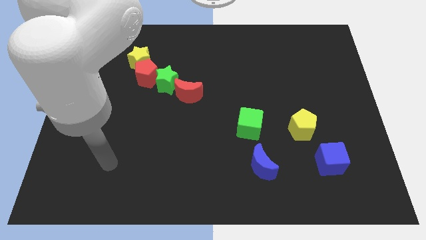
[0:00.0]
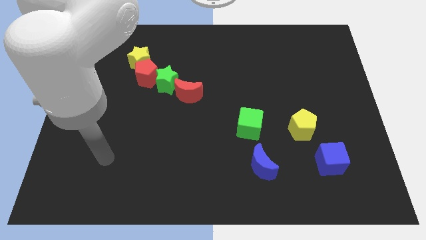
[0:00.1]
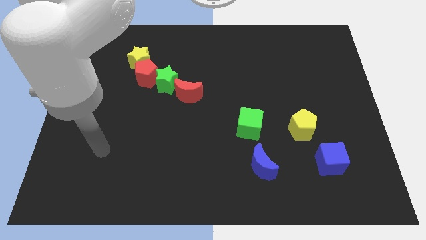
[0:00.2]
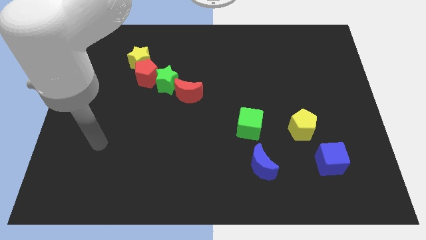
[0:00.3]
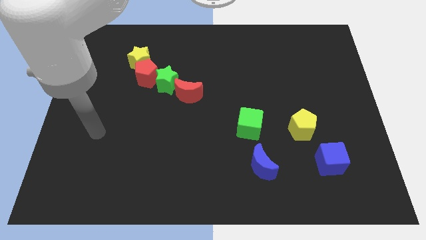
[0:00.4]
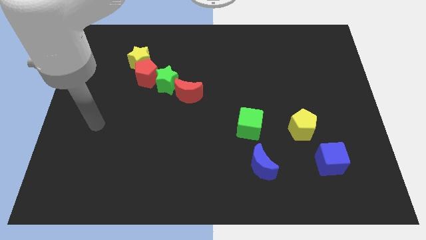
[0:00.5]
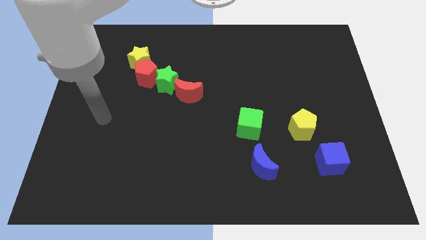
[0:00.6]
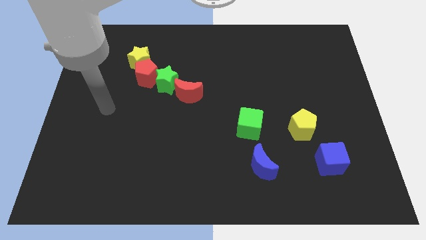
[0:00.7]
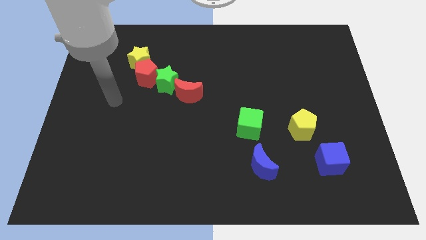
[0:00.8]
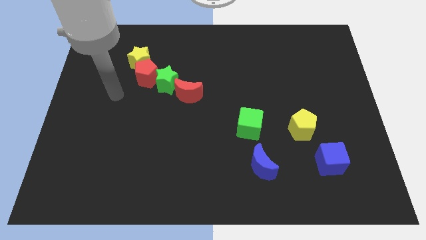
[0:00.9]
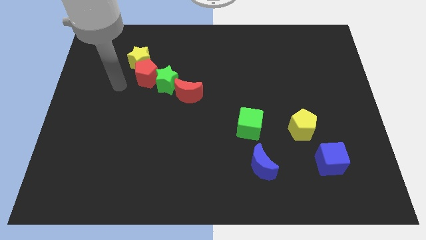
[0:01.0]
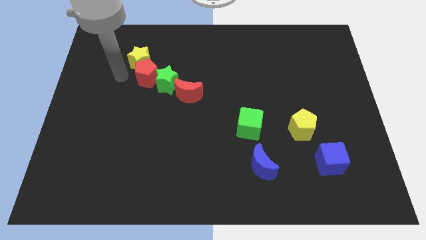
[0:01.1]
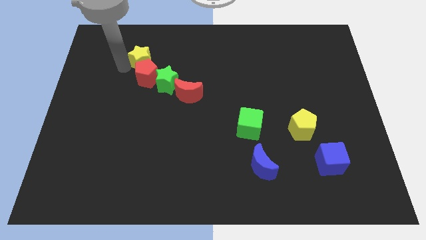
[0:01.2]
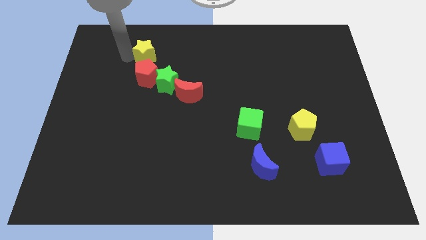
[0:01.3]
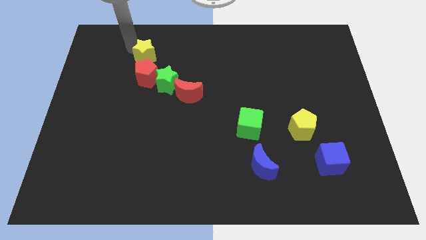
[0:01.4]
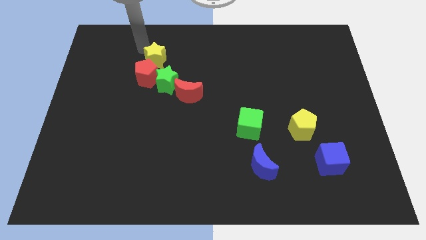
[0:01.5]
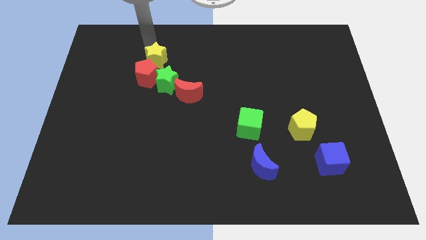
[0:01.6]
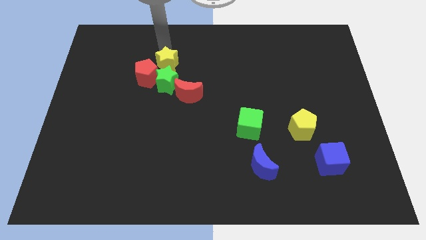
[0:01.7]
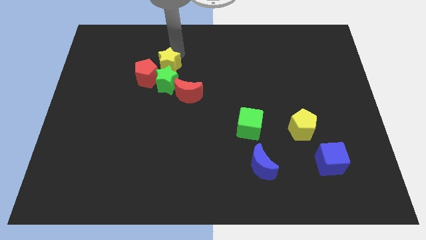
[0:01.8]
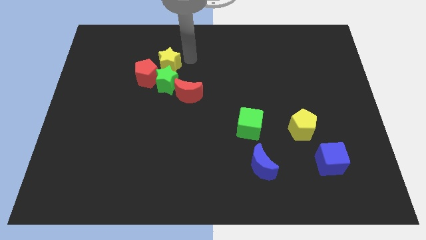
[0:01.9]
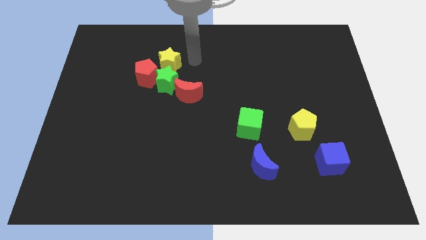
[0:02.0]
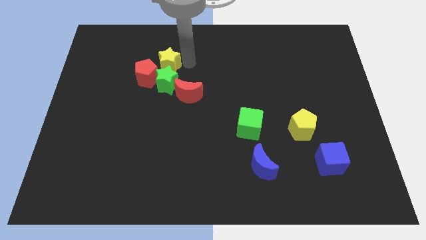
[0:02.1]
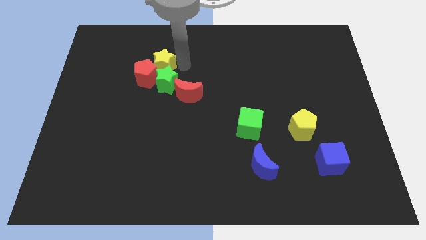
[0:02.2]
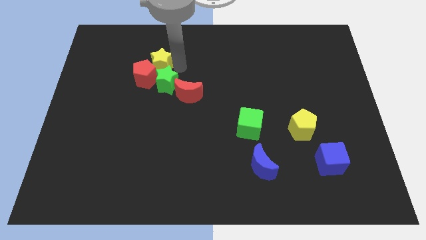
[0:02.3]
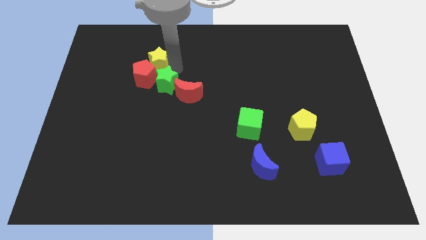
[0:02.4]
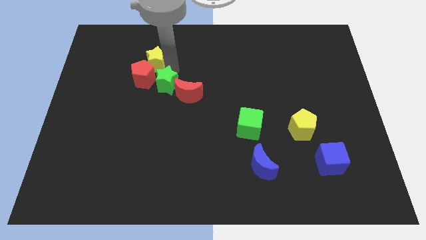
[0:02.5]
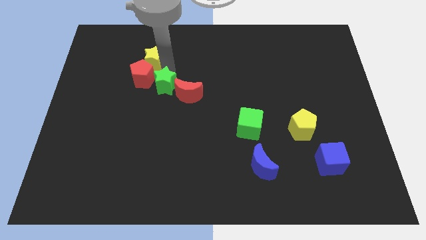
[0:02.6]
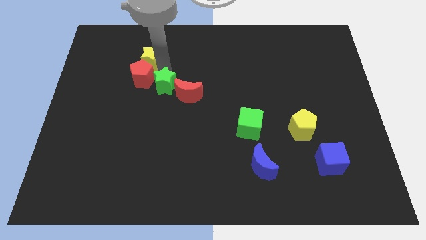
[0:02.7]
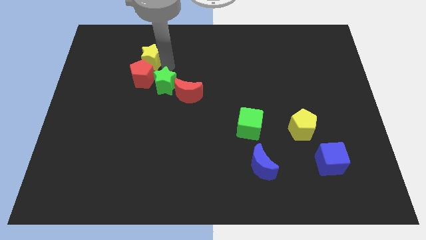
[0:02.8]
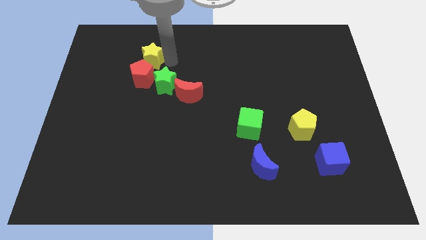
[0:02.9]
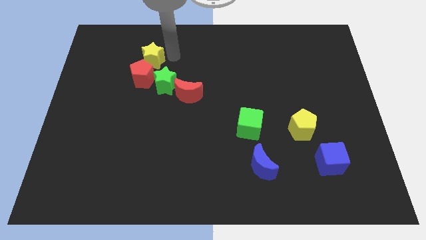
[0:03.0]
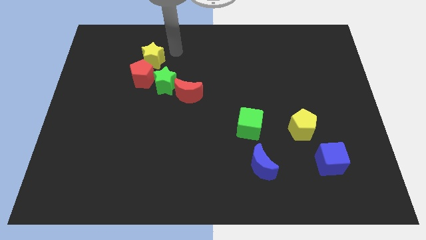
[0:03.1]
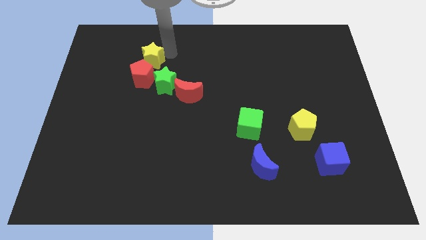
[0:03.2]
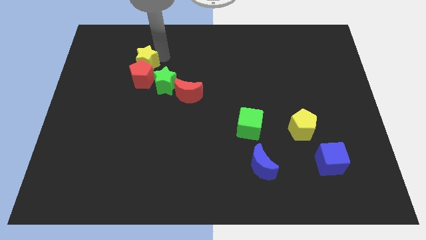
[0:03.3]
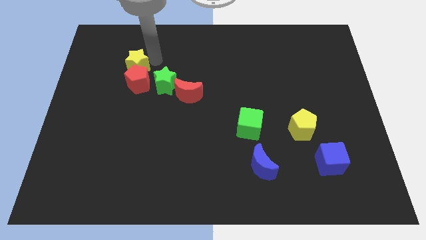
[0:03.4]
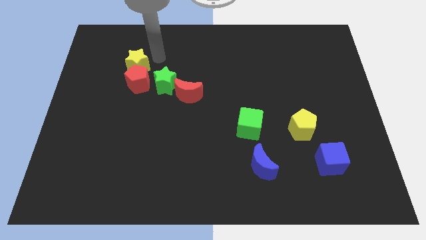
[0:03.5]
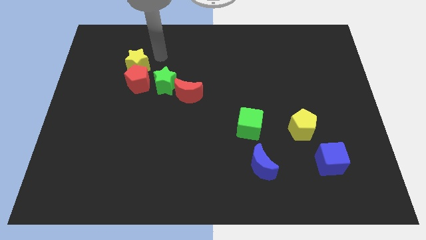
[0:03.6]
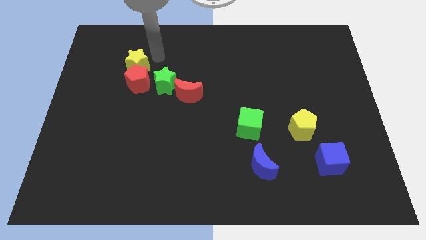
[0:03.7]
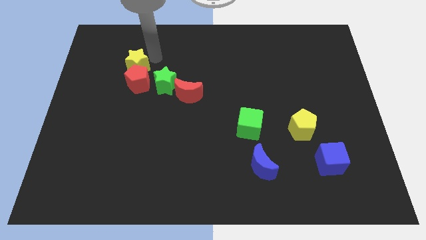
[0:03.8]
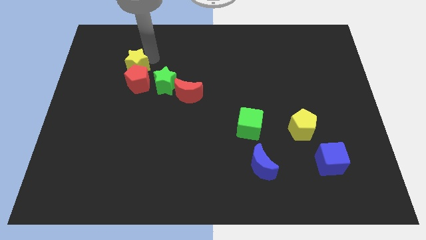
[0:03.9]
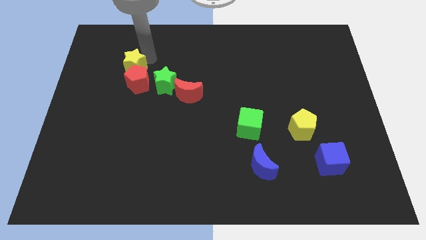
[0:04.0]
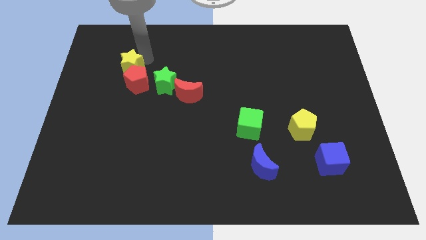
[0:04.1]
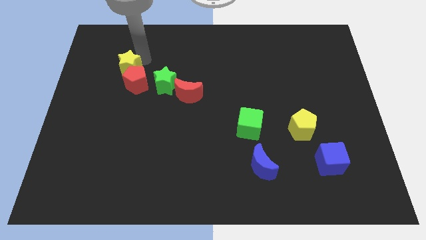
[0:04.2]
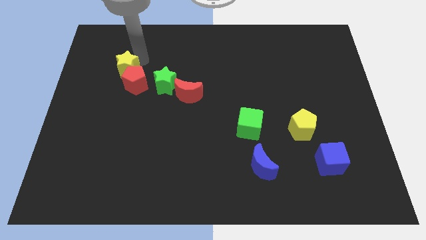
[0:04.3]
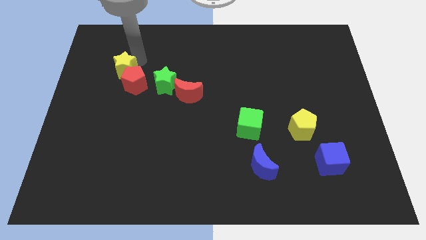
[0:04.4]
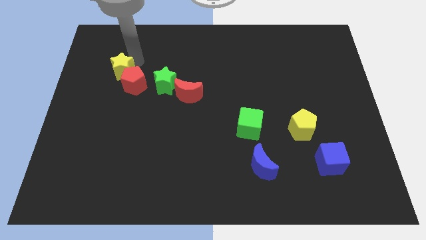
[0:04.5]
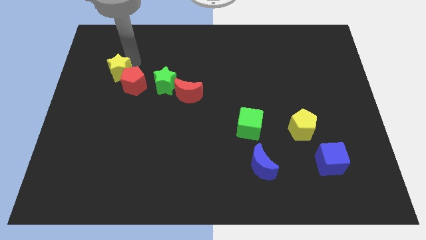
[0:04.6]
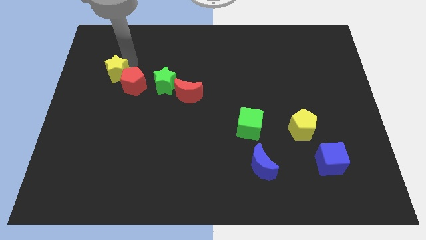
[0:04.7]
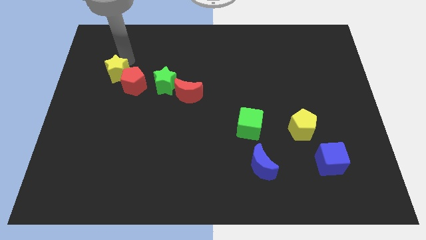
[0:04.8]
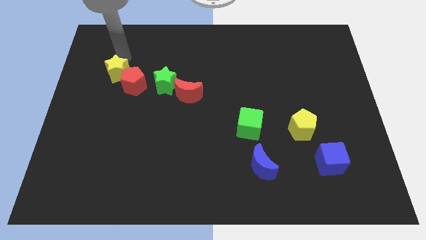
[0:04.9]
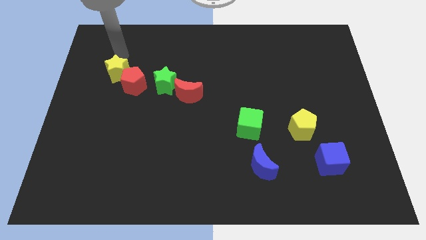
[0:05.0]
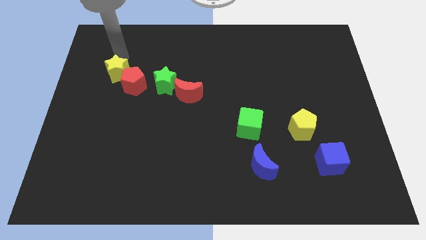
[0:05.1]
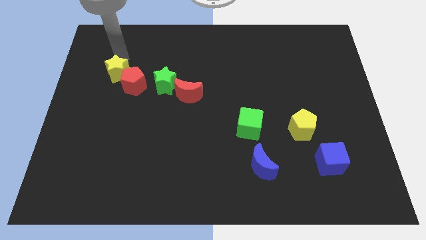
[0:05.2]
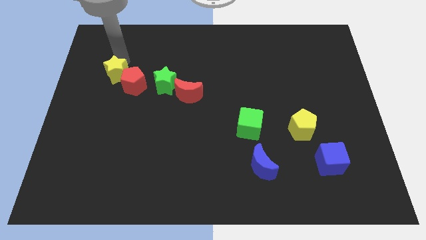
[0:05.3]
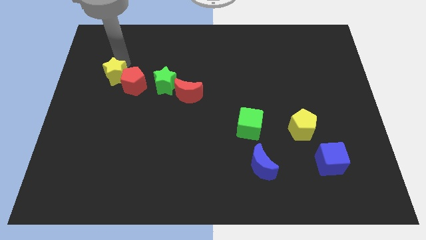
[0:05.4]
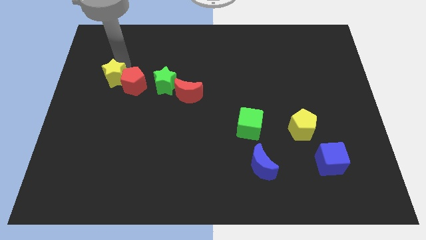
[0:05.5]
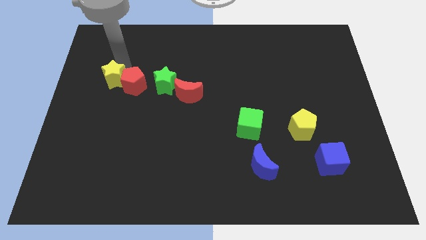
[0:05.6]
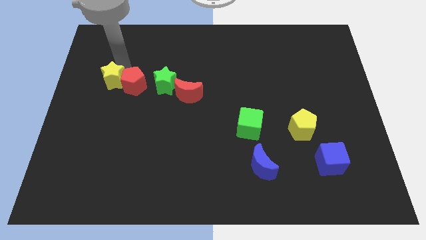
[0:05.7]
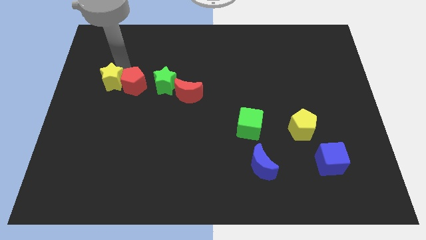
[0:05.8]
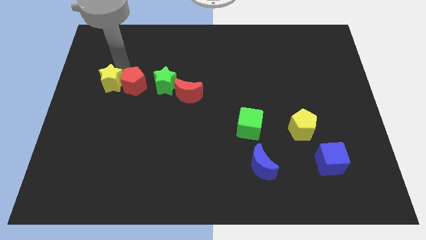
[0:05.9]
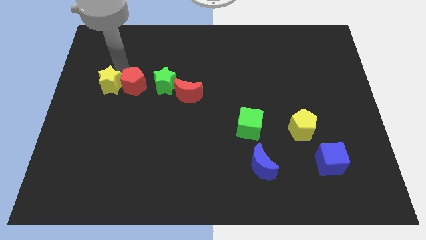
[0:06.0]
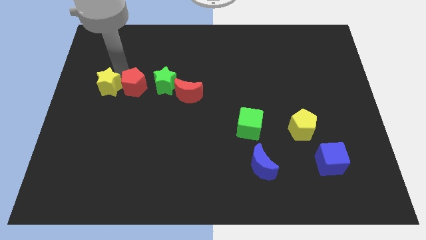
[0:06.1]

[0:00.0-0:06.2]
slide the yellow star downwards somewhat

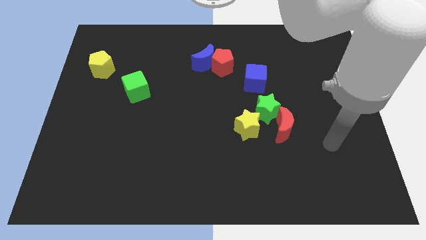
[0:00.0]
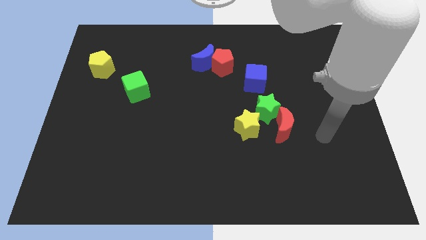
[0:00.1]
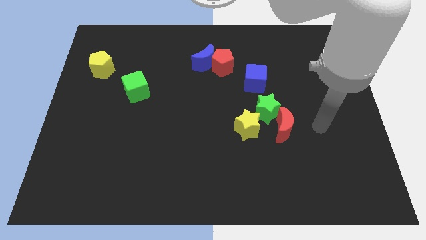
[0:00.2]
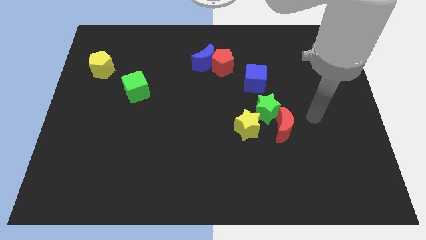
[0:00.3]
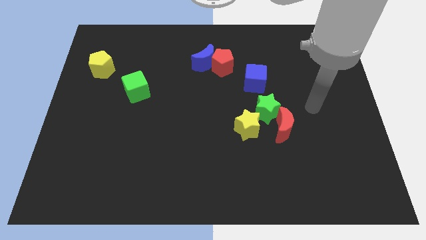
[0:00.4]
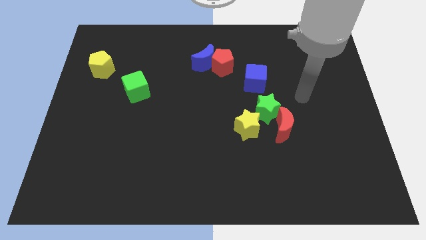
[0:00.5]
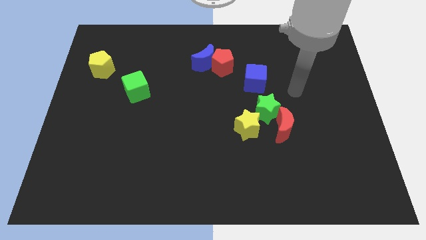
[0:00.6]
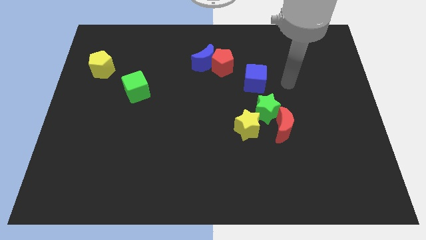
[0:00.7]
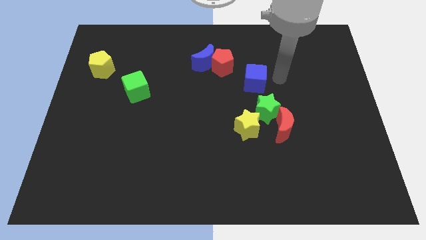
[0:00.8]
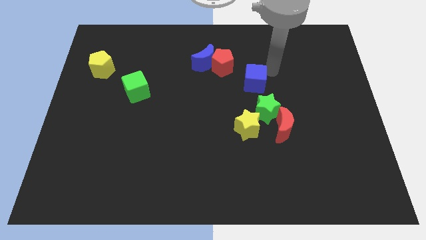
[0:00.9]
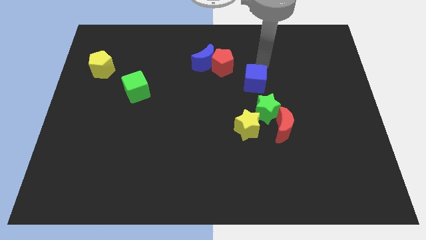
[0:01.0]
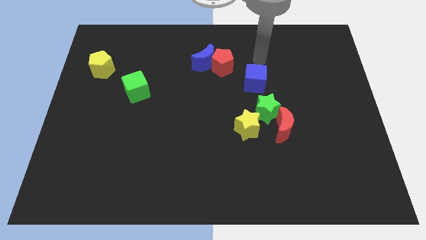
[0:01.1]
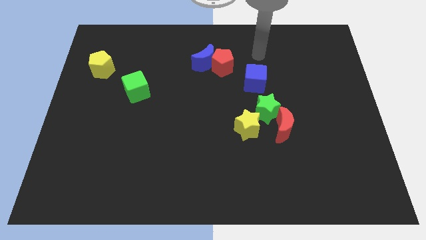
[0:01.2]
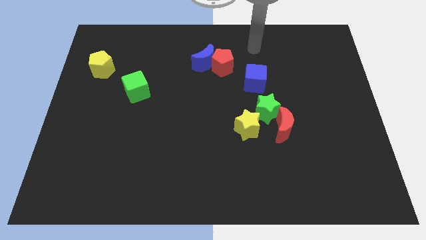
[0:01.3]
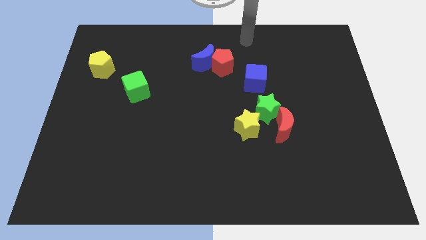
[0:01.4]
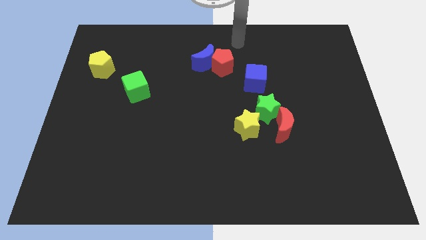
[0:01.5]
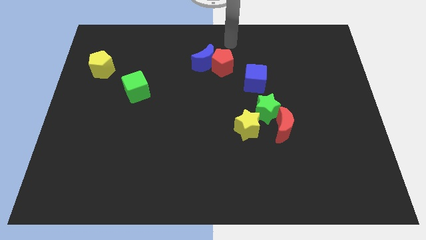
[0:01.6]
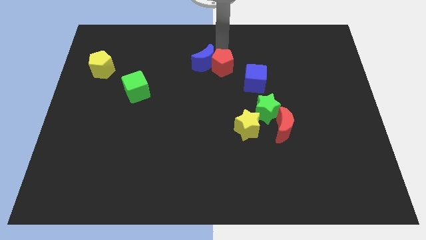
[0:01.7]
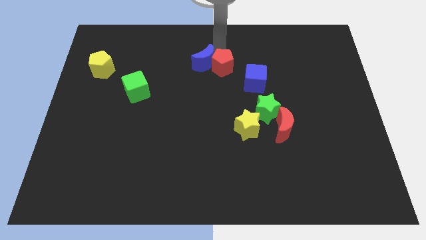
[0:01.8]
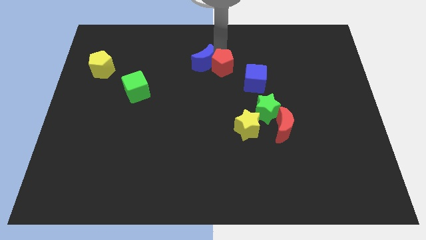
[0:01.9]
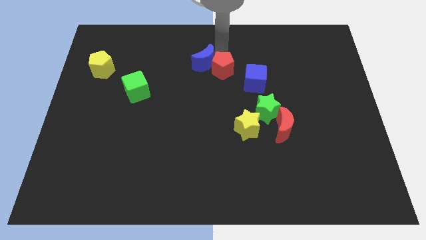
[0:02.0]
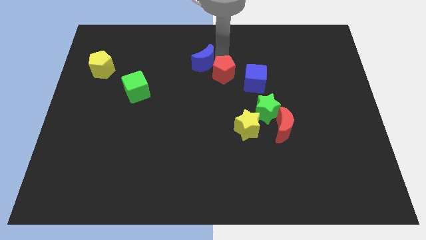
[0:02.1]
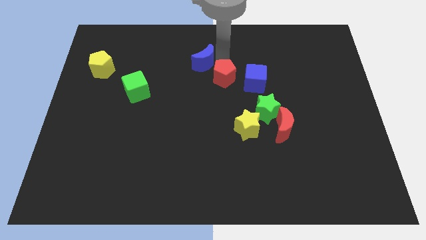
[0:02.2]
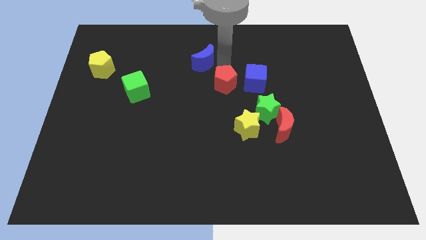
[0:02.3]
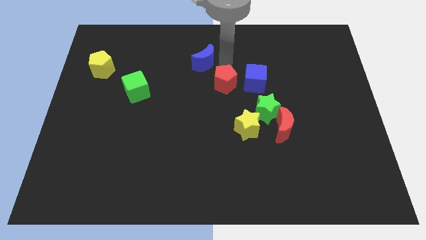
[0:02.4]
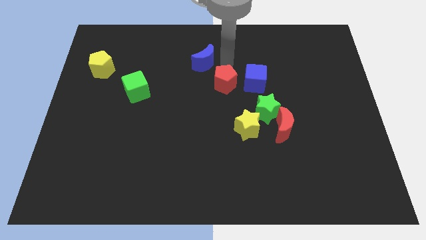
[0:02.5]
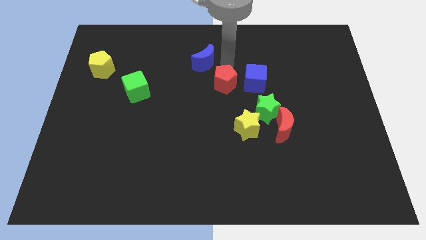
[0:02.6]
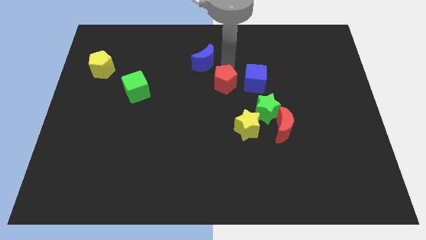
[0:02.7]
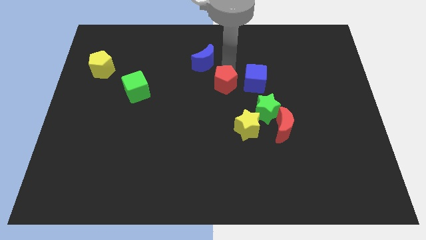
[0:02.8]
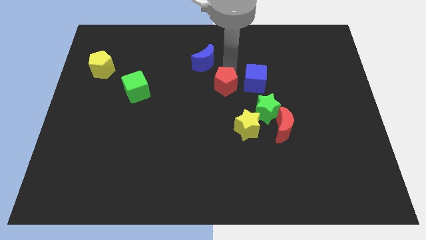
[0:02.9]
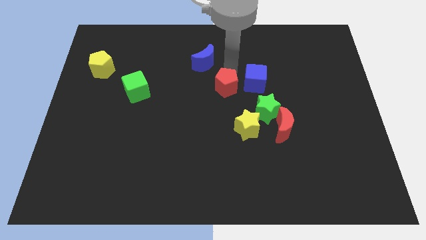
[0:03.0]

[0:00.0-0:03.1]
move the red pentagon down somewhat
